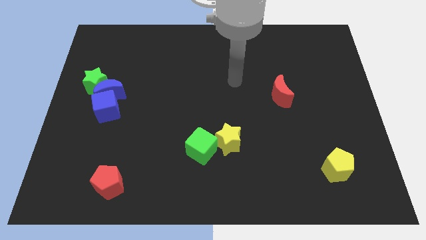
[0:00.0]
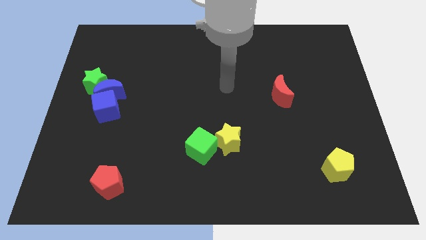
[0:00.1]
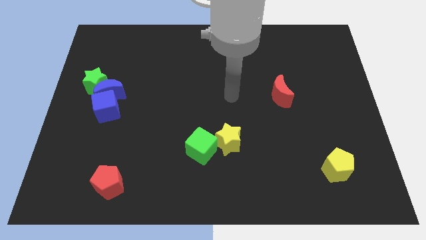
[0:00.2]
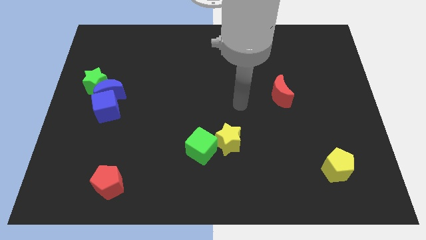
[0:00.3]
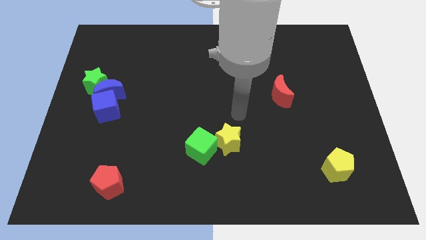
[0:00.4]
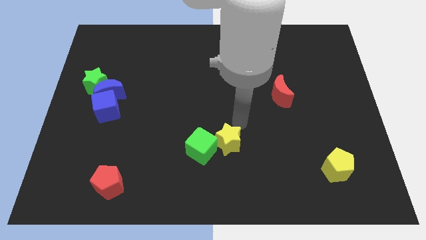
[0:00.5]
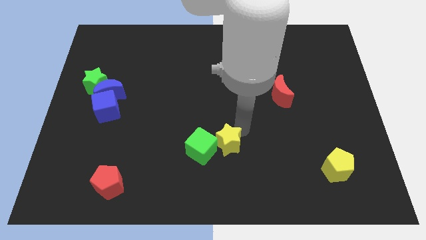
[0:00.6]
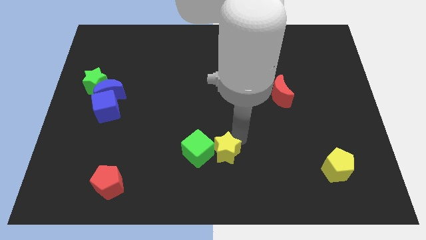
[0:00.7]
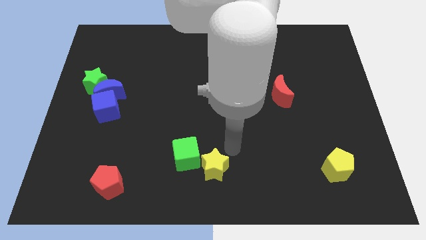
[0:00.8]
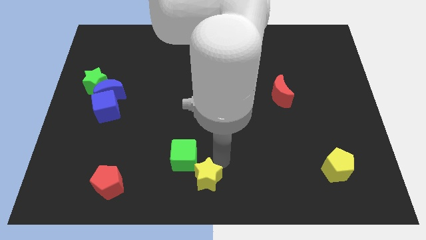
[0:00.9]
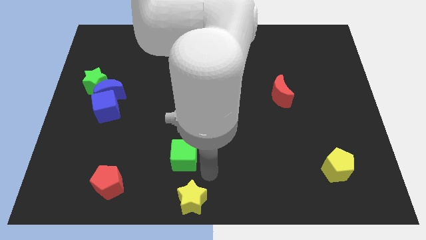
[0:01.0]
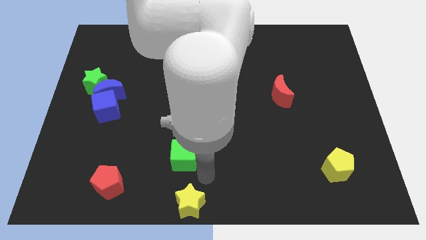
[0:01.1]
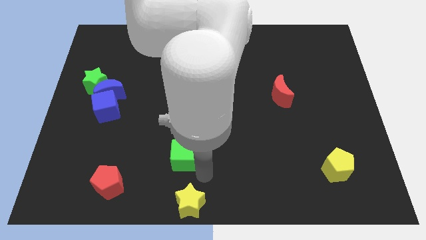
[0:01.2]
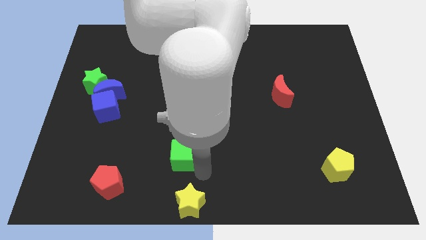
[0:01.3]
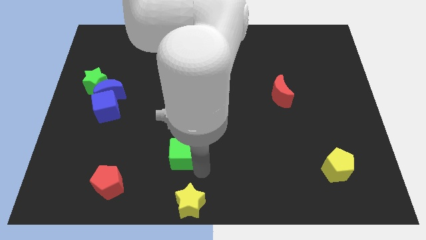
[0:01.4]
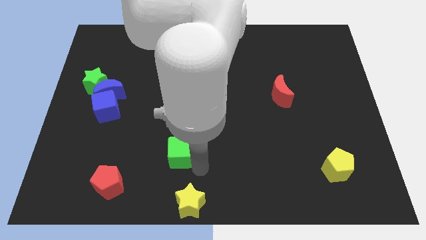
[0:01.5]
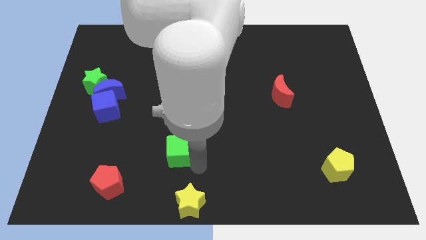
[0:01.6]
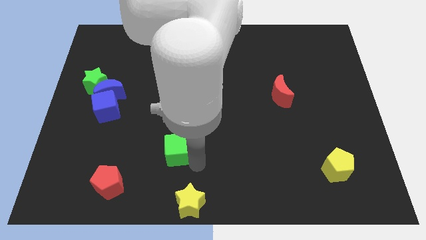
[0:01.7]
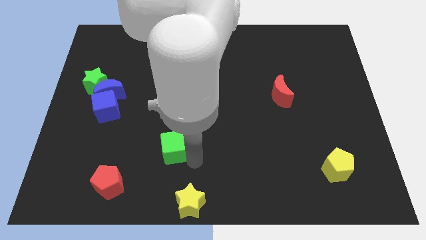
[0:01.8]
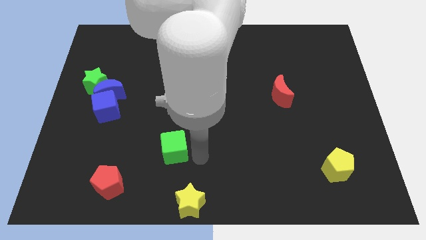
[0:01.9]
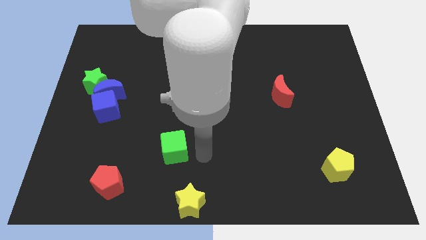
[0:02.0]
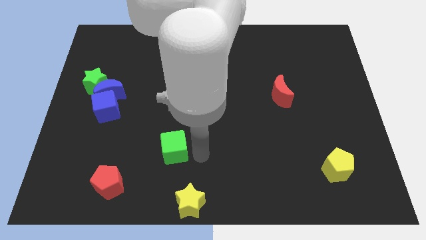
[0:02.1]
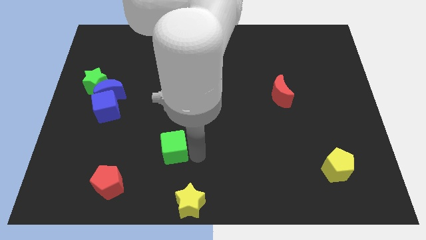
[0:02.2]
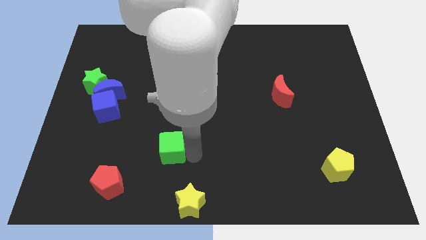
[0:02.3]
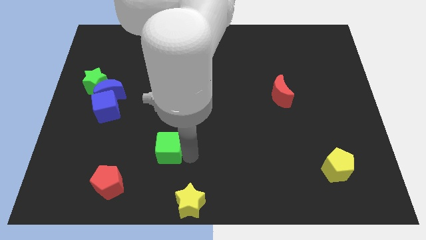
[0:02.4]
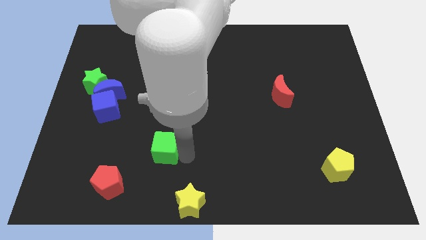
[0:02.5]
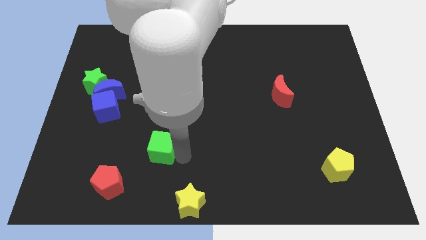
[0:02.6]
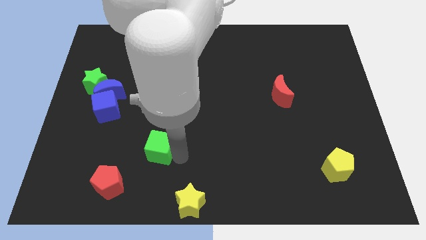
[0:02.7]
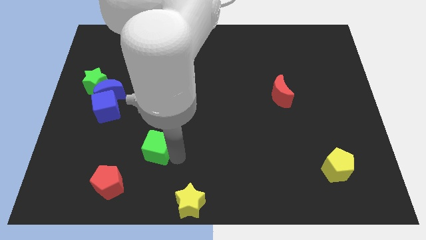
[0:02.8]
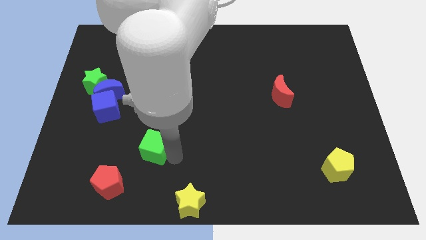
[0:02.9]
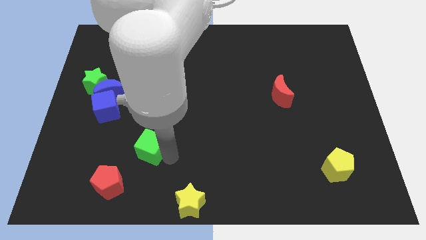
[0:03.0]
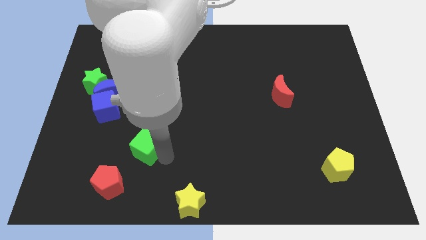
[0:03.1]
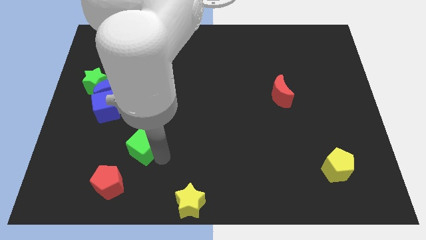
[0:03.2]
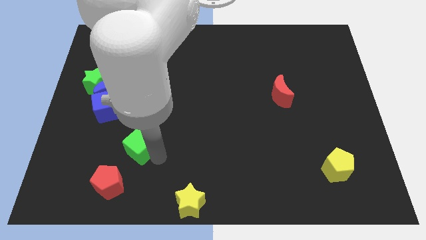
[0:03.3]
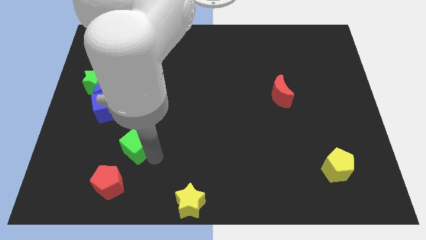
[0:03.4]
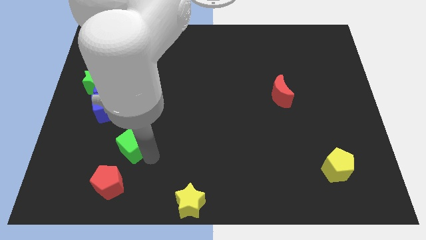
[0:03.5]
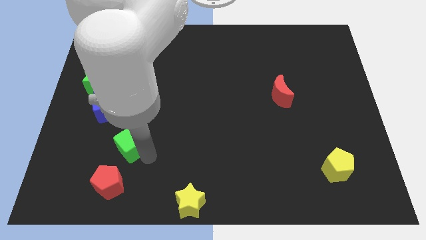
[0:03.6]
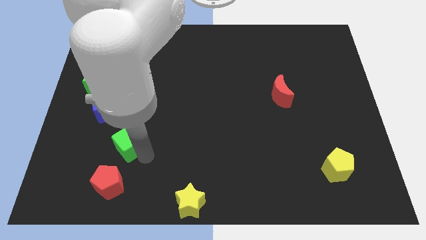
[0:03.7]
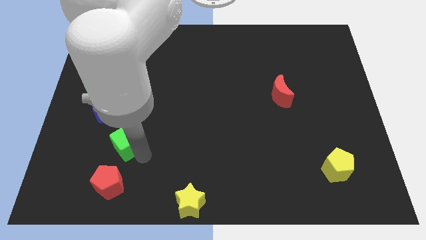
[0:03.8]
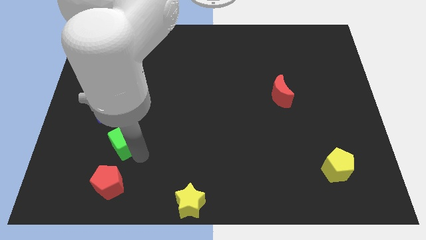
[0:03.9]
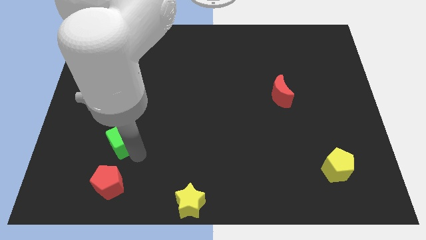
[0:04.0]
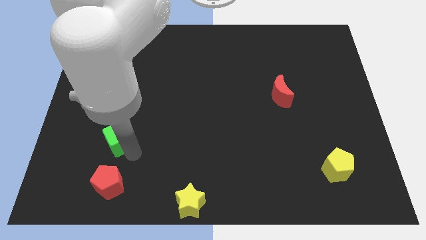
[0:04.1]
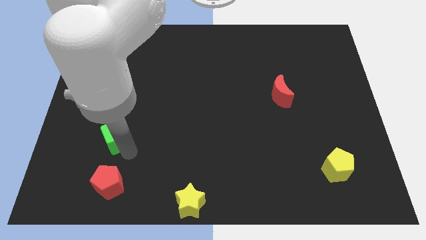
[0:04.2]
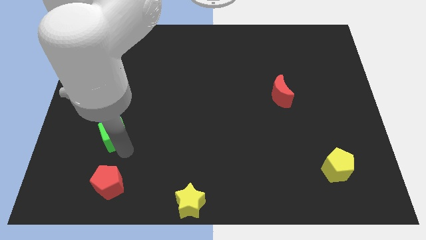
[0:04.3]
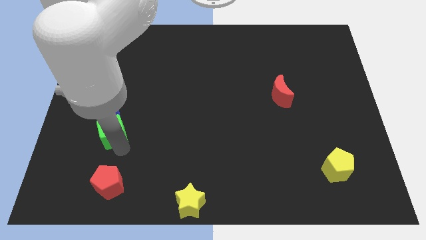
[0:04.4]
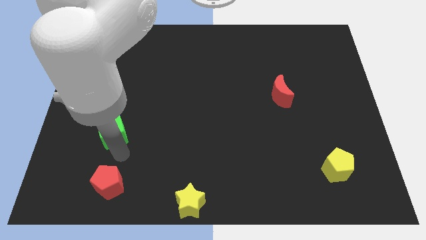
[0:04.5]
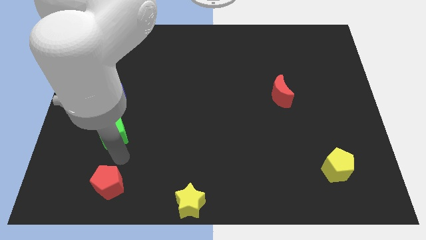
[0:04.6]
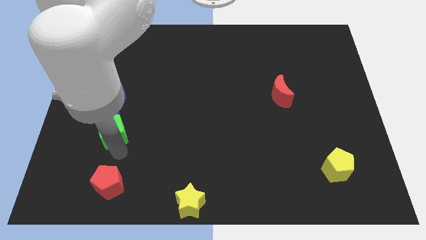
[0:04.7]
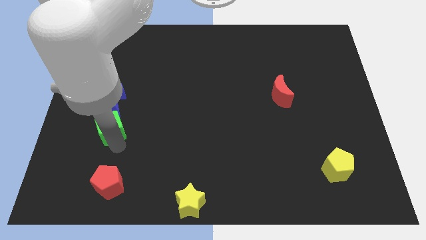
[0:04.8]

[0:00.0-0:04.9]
put the green cube to the blue cube

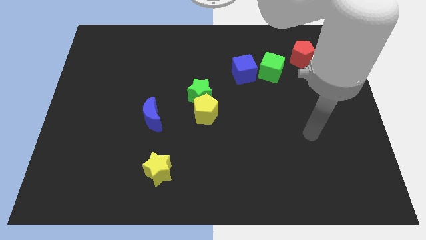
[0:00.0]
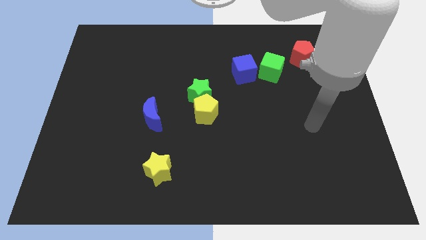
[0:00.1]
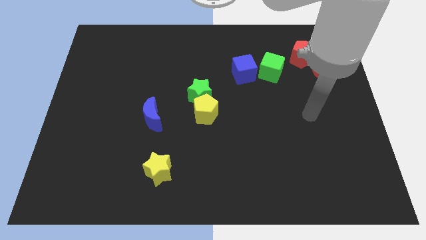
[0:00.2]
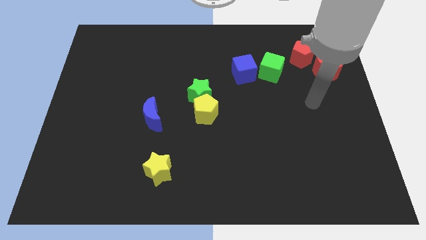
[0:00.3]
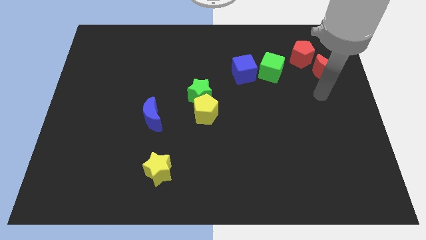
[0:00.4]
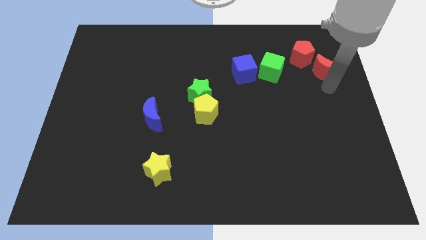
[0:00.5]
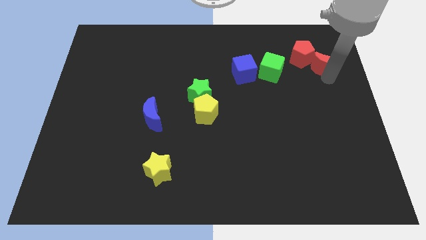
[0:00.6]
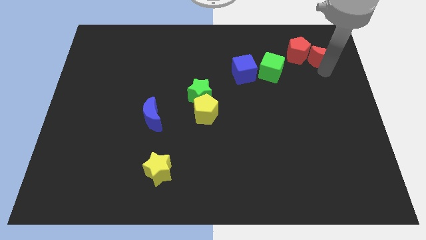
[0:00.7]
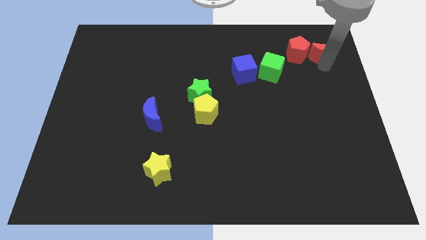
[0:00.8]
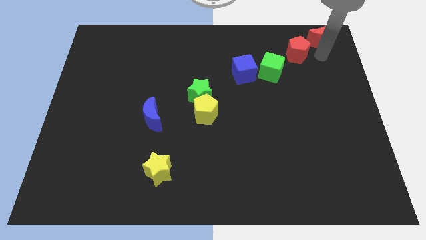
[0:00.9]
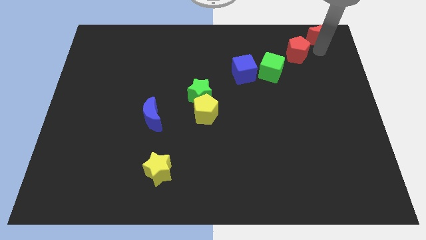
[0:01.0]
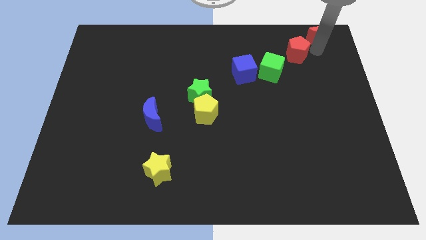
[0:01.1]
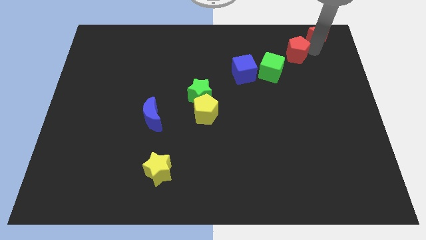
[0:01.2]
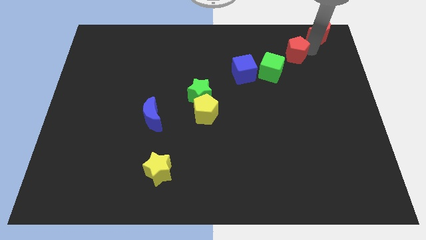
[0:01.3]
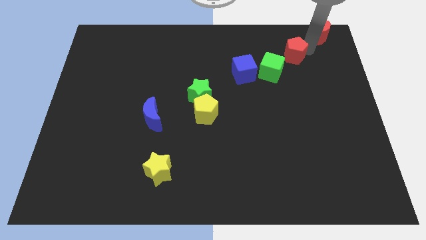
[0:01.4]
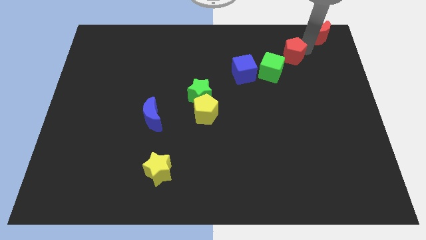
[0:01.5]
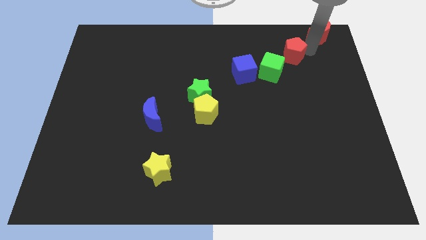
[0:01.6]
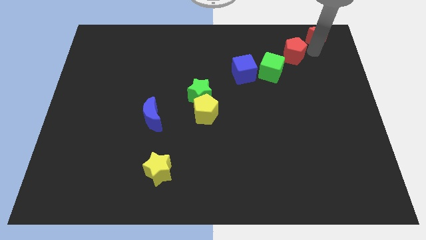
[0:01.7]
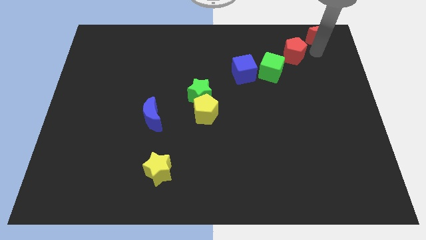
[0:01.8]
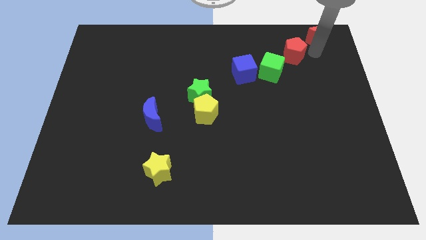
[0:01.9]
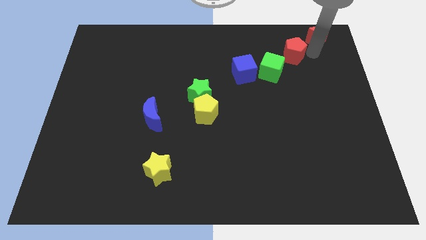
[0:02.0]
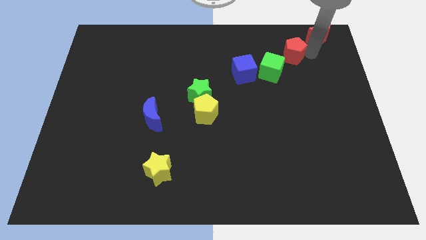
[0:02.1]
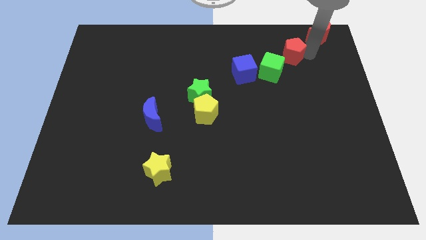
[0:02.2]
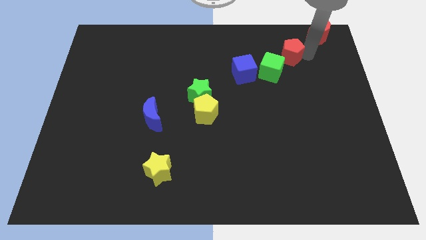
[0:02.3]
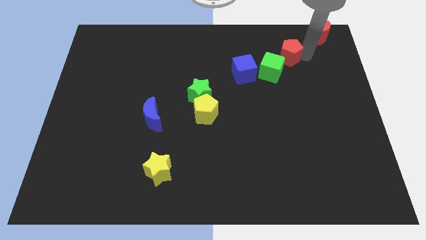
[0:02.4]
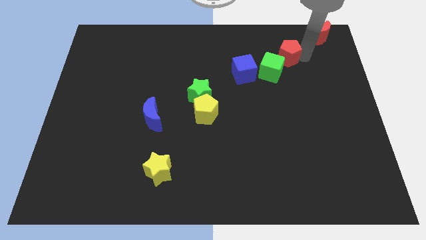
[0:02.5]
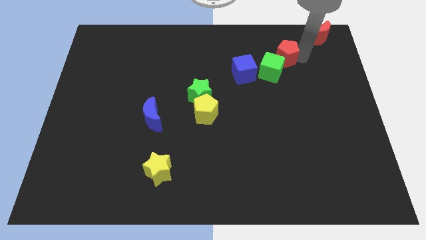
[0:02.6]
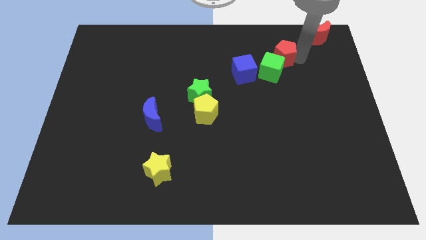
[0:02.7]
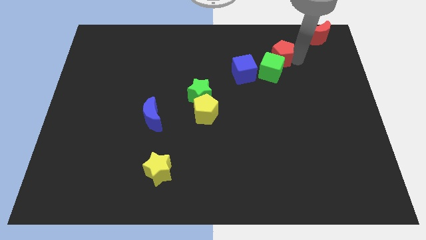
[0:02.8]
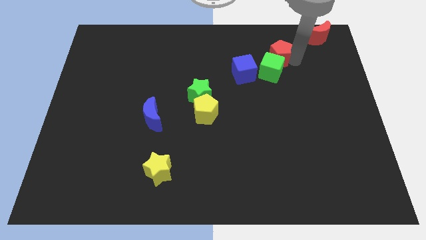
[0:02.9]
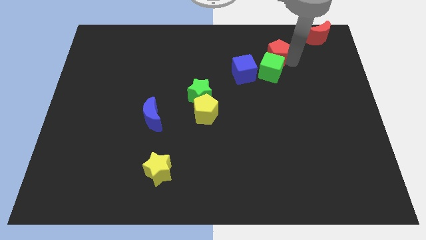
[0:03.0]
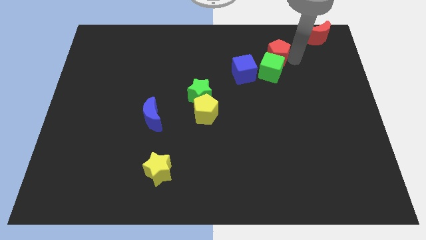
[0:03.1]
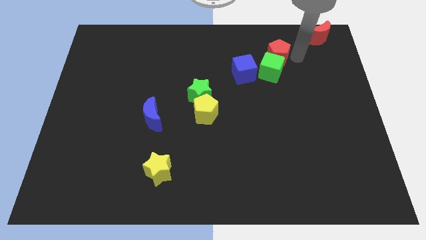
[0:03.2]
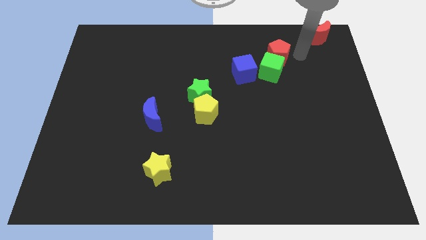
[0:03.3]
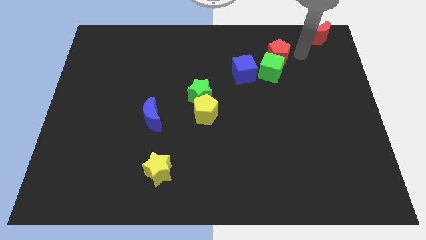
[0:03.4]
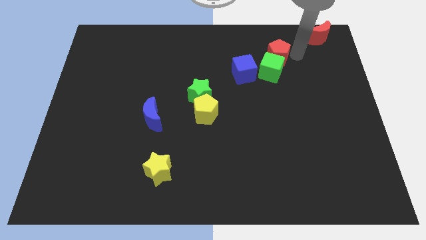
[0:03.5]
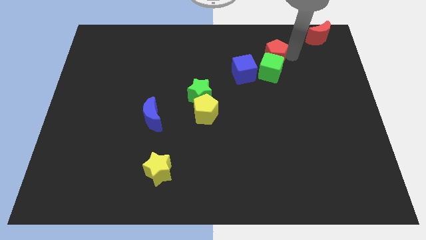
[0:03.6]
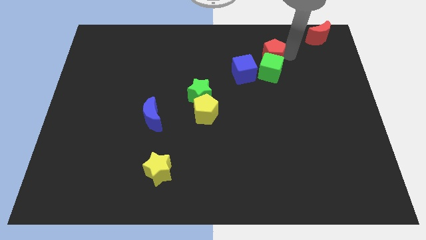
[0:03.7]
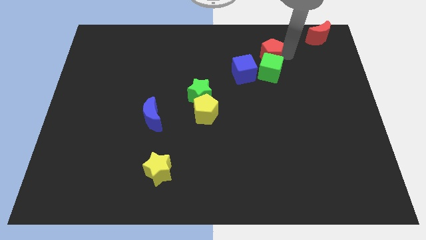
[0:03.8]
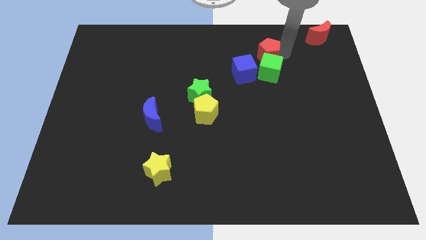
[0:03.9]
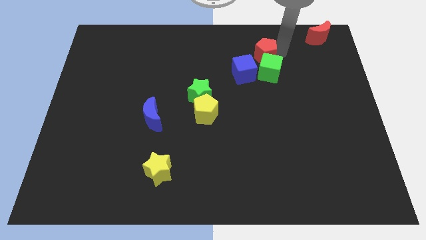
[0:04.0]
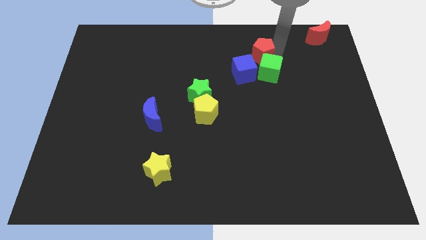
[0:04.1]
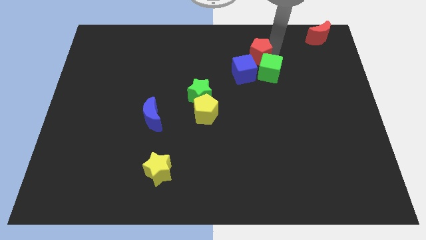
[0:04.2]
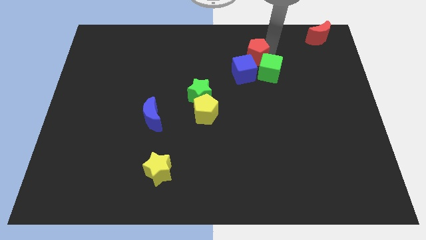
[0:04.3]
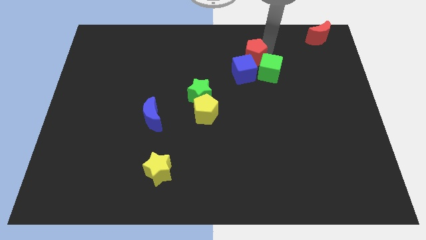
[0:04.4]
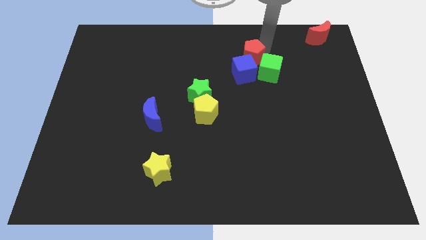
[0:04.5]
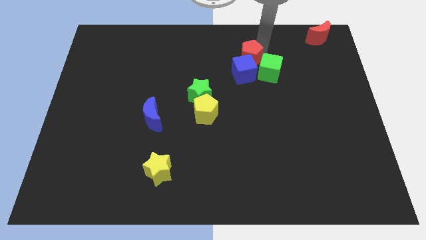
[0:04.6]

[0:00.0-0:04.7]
move the red pentagon close to the blue cube
